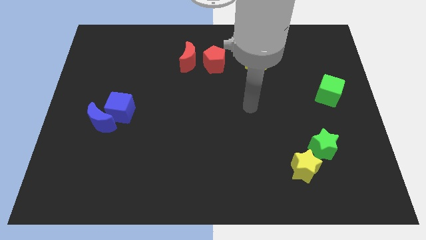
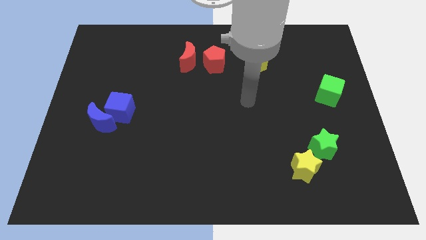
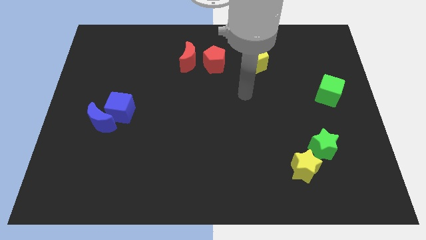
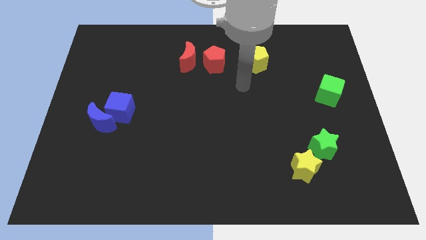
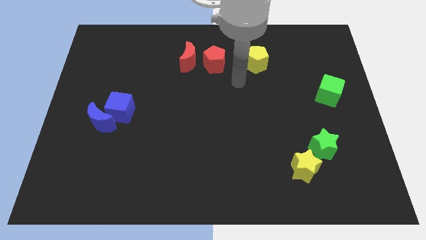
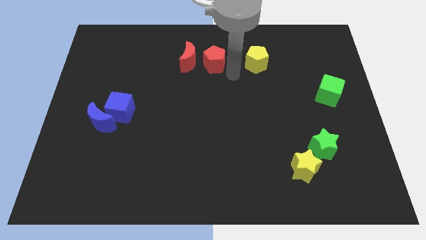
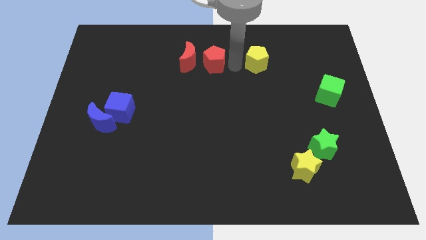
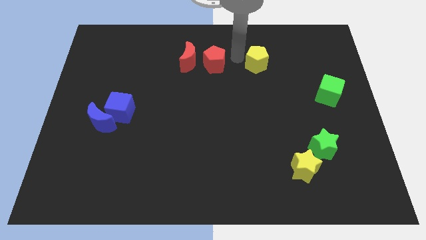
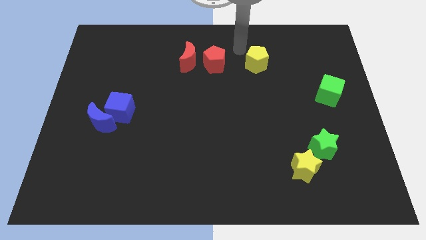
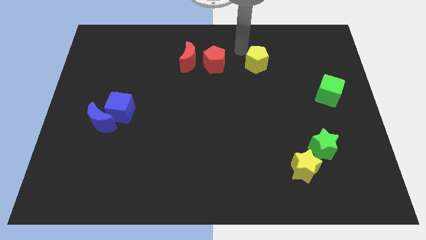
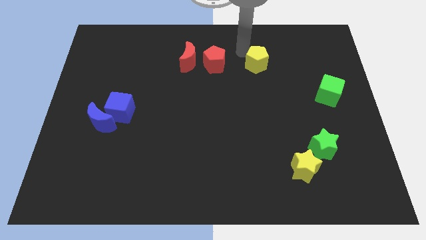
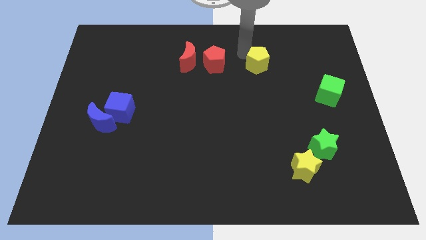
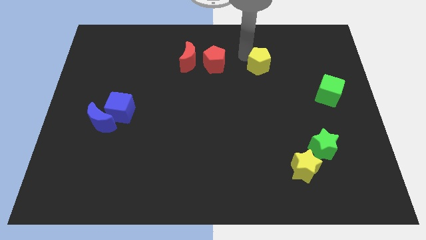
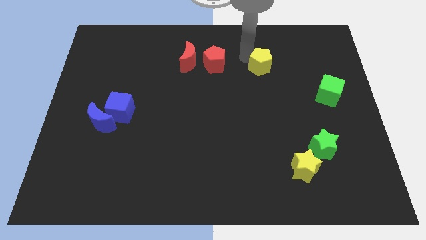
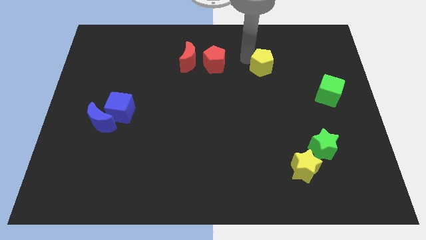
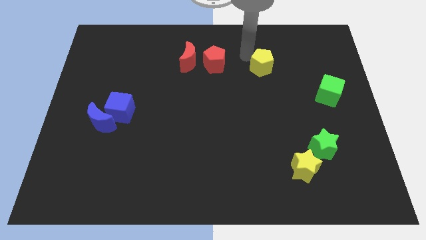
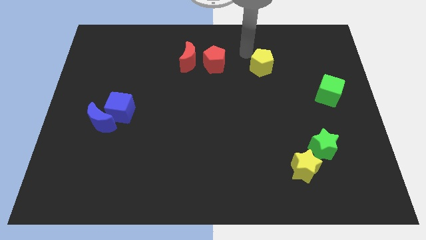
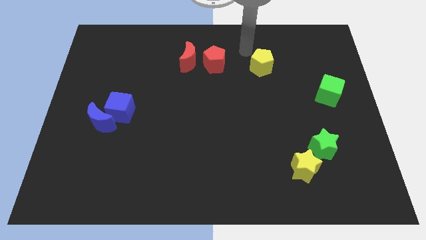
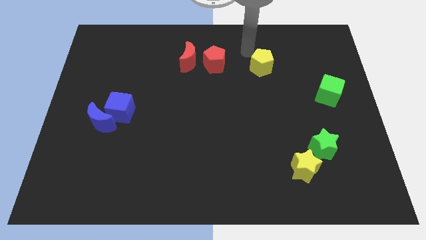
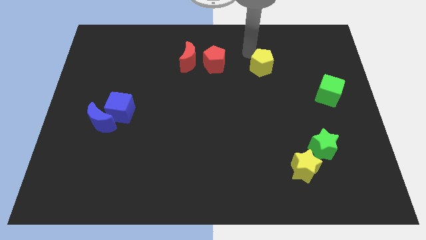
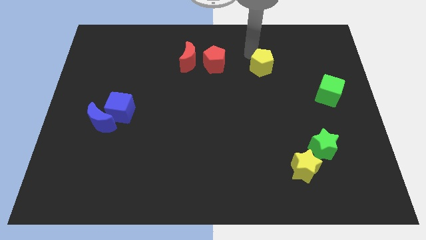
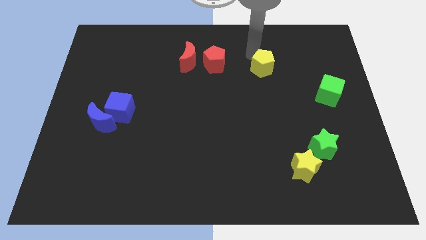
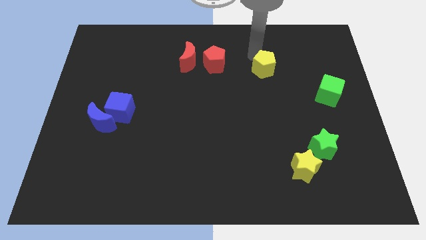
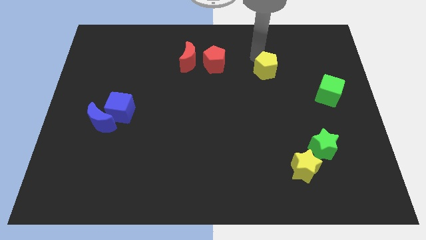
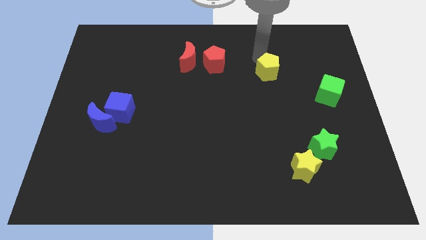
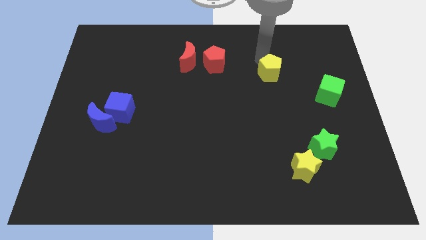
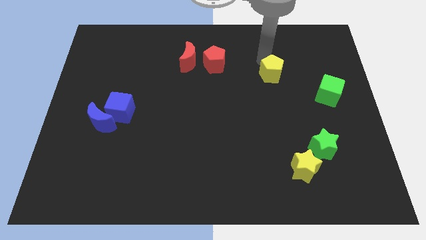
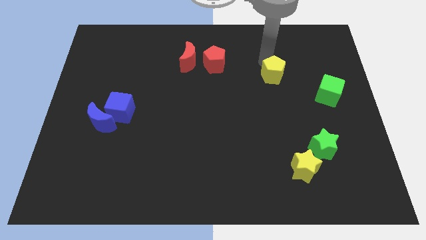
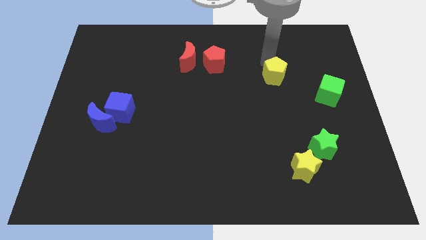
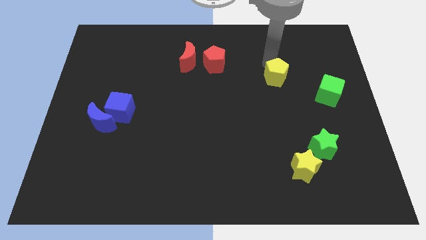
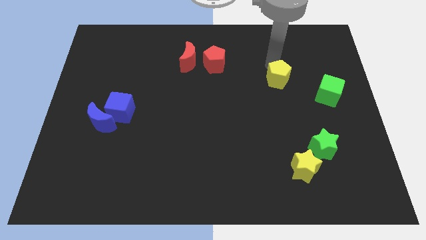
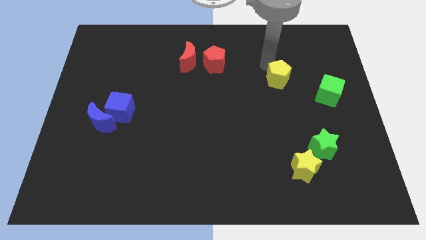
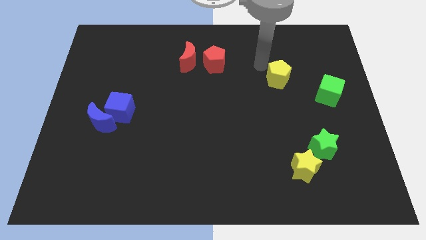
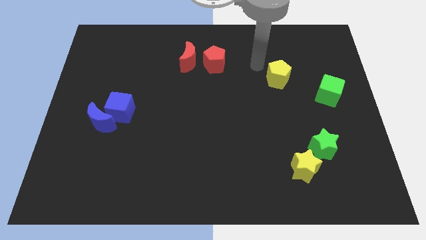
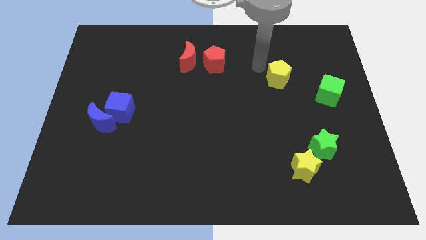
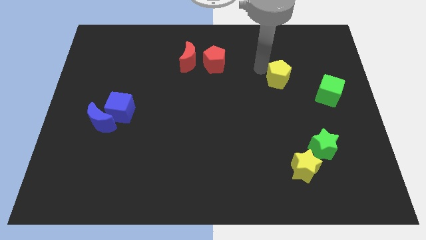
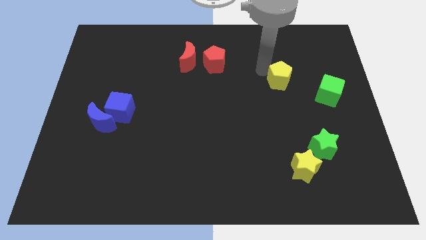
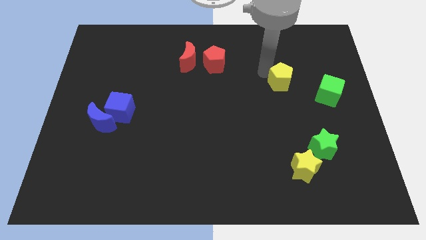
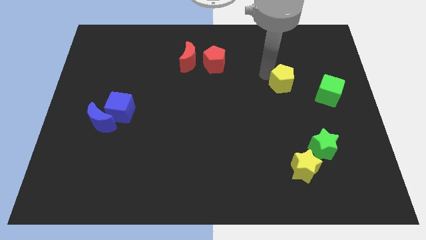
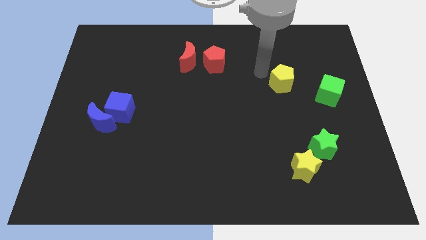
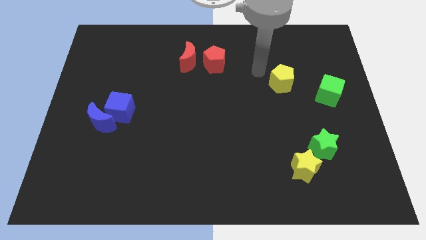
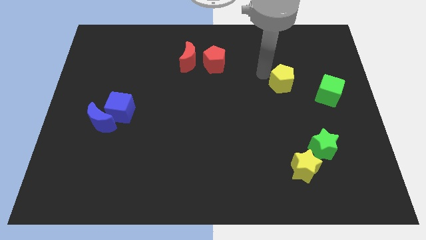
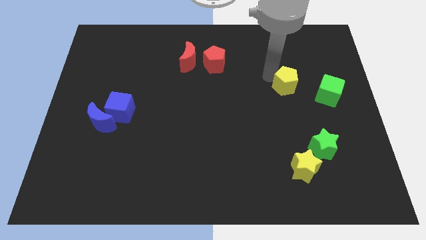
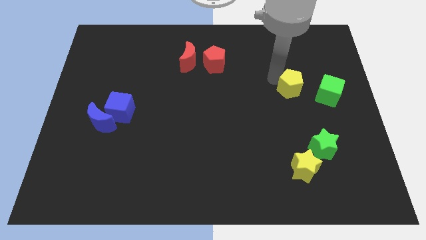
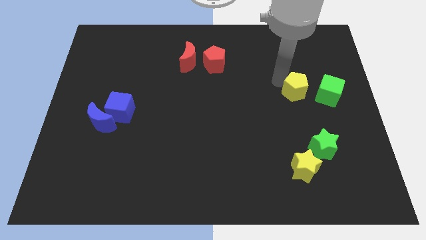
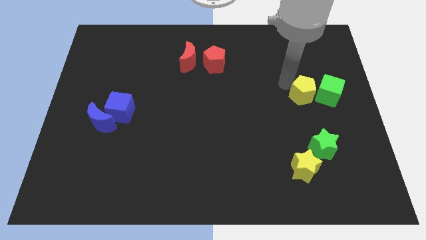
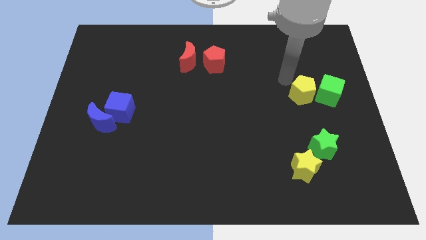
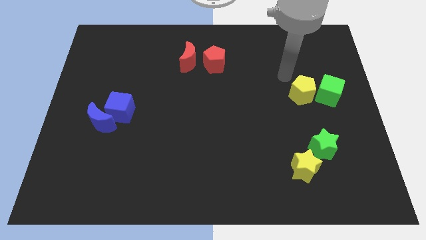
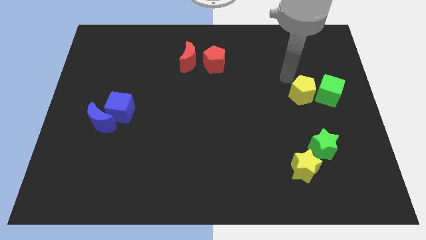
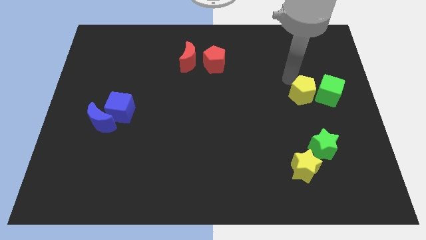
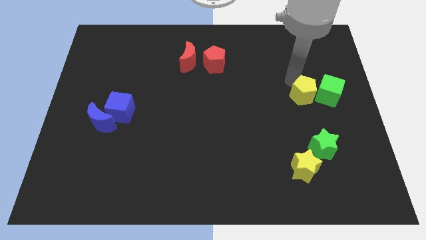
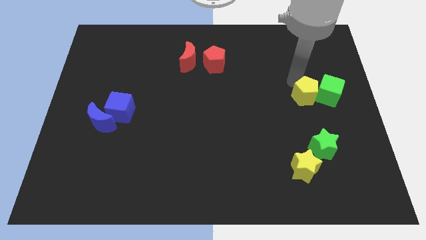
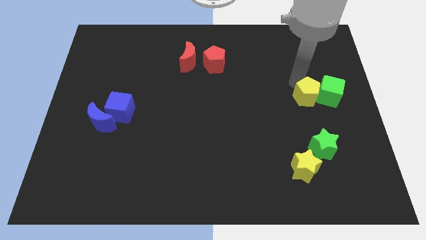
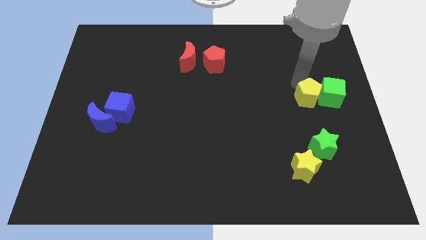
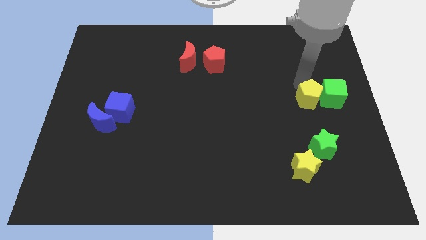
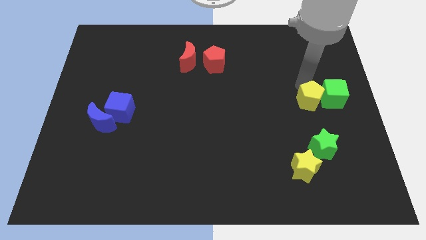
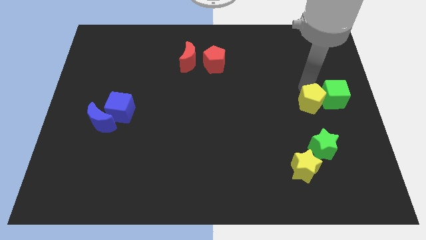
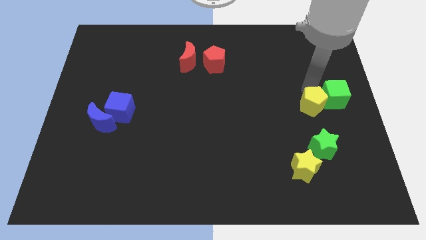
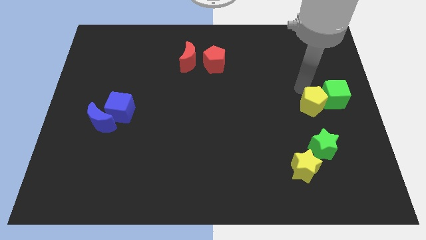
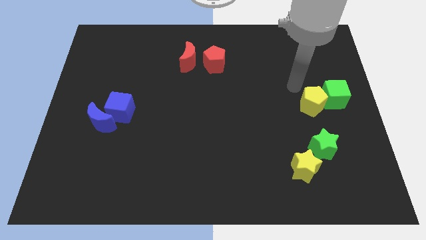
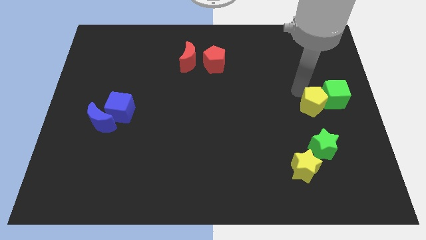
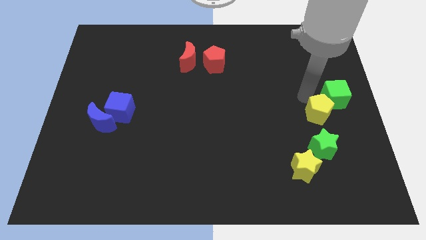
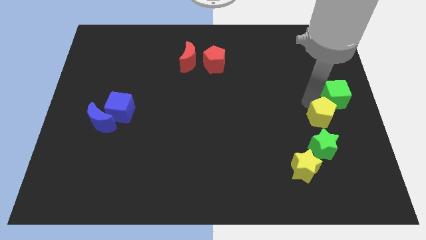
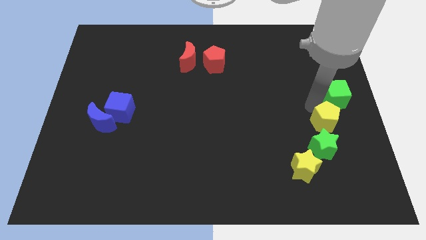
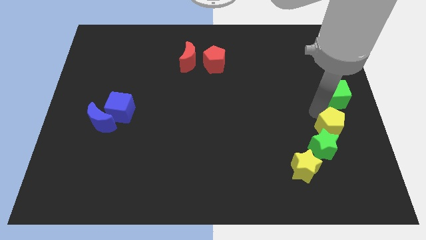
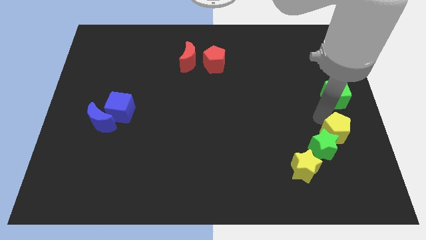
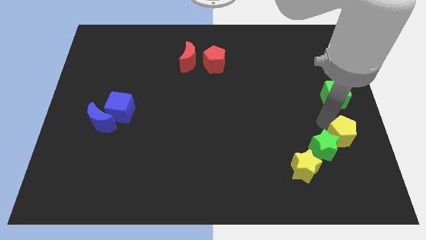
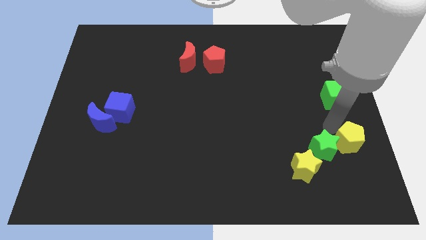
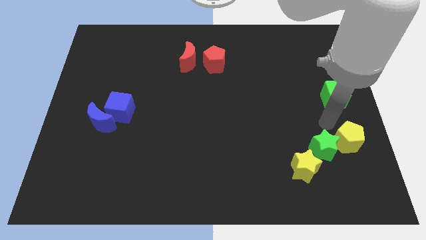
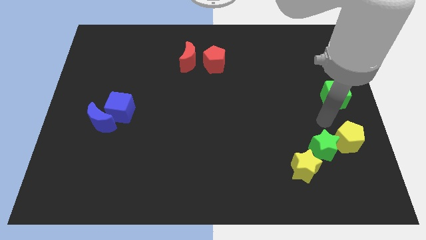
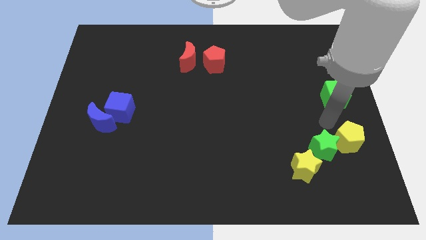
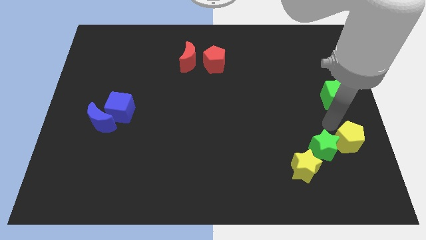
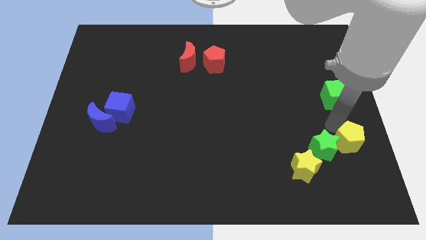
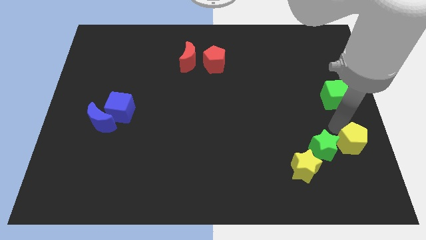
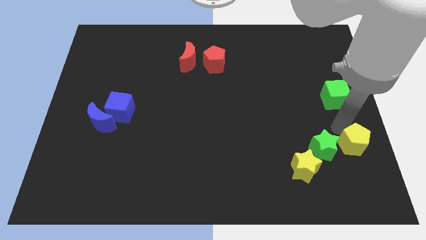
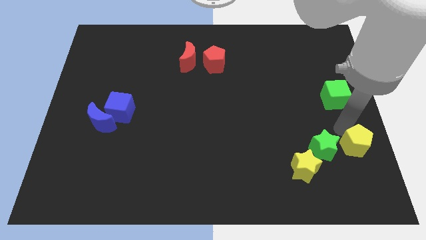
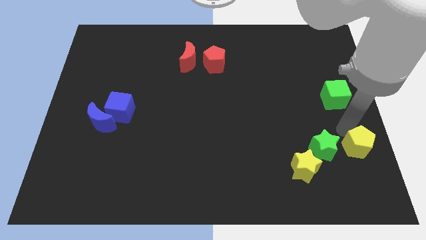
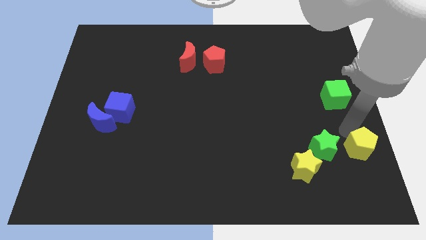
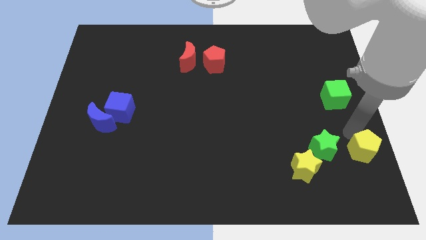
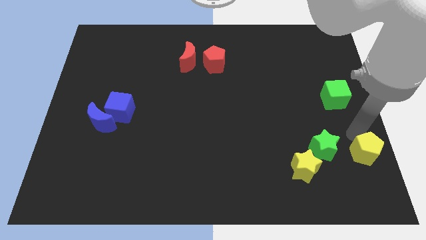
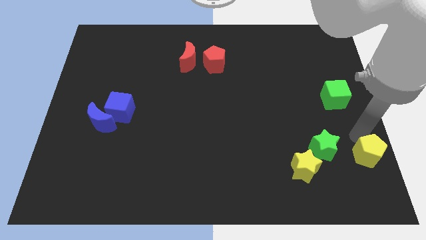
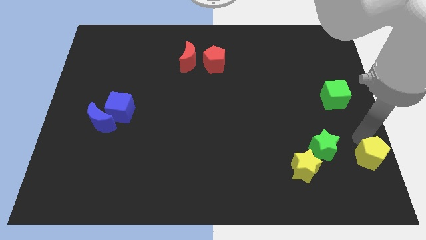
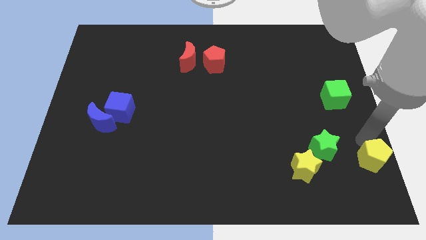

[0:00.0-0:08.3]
slide the yellow pentagon to the bottom right corner
